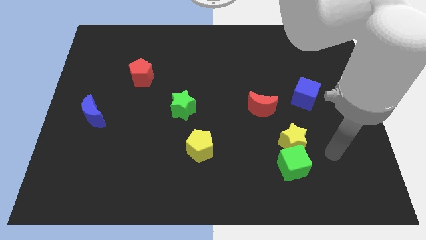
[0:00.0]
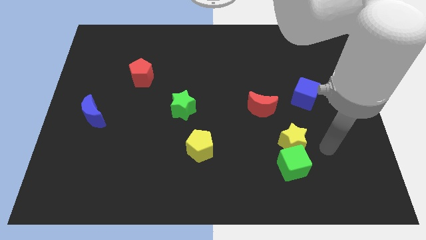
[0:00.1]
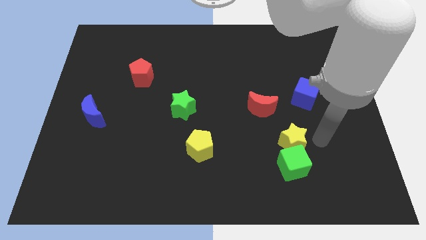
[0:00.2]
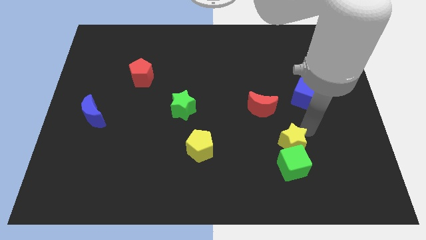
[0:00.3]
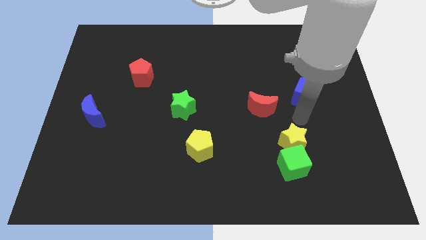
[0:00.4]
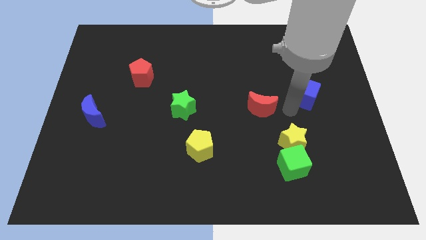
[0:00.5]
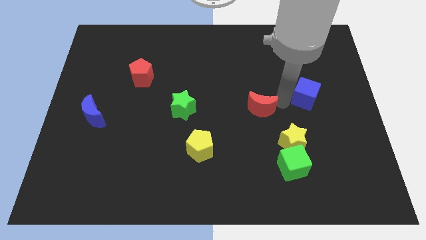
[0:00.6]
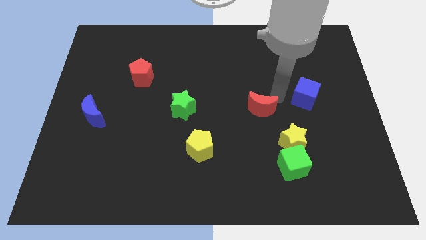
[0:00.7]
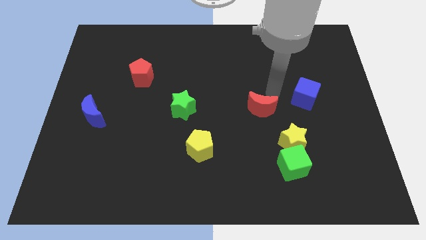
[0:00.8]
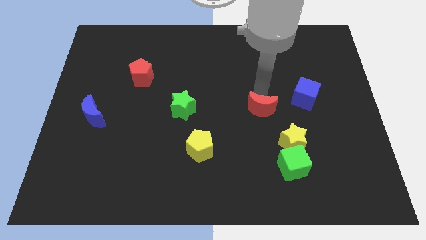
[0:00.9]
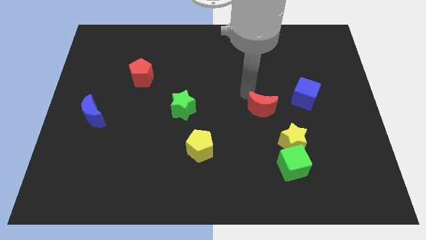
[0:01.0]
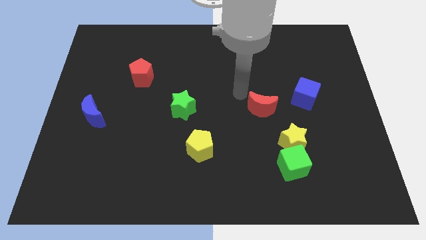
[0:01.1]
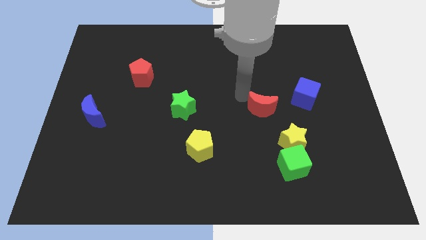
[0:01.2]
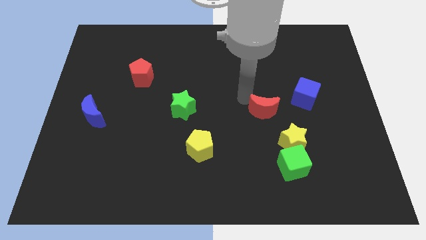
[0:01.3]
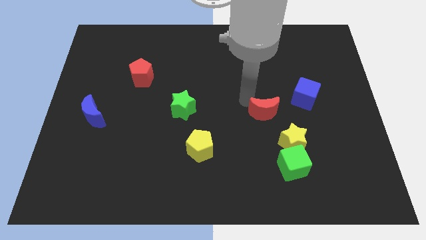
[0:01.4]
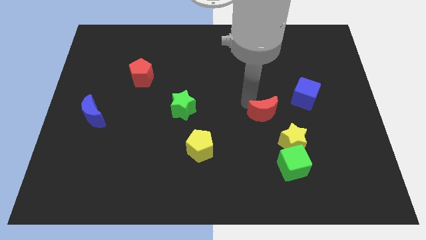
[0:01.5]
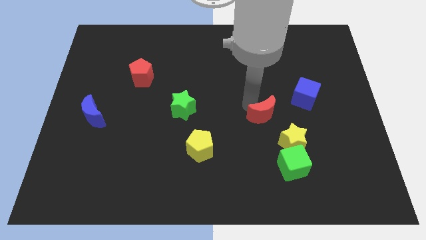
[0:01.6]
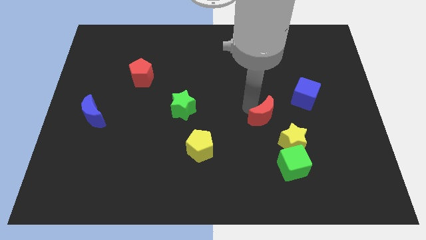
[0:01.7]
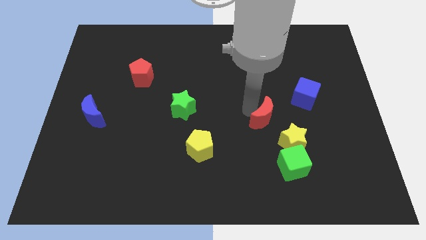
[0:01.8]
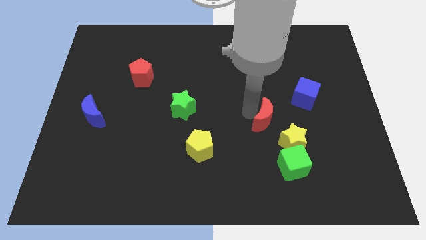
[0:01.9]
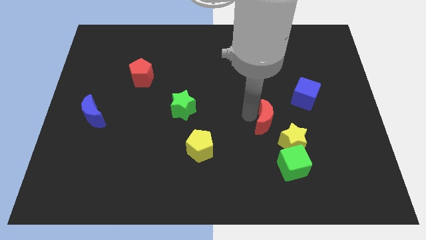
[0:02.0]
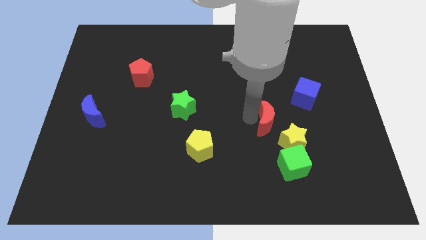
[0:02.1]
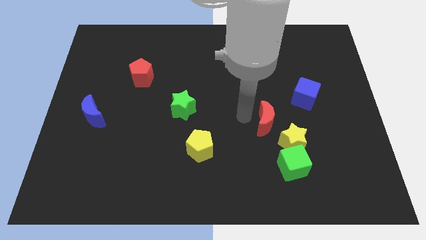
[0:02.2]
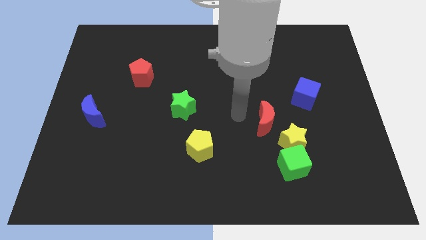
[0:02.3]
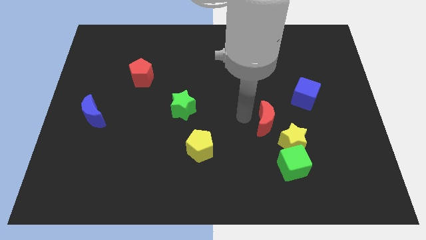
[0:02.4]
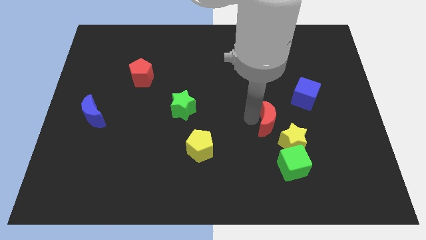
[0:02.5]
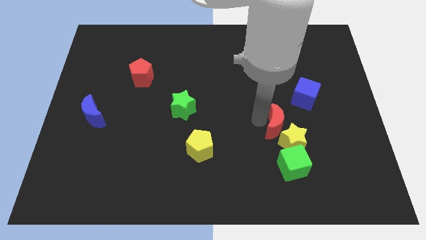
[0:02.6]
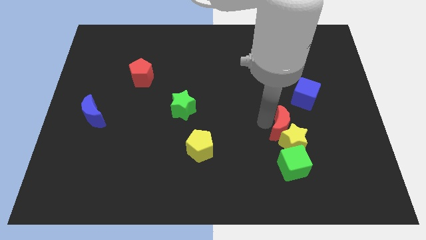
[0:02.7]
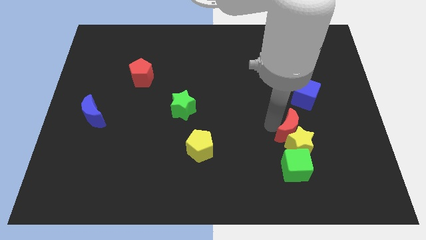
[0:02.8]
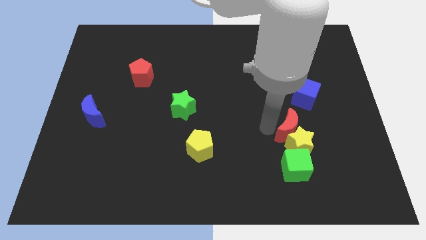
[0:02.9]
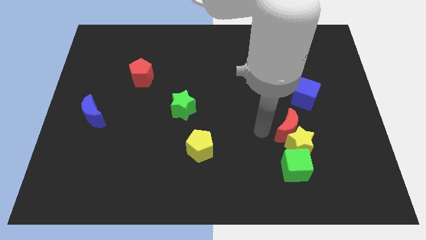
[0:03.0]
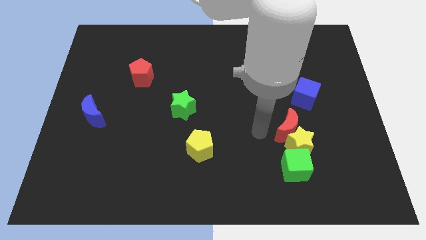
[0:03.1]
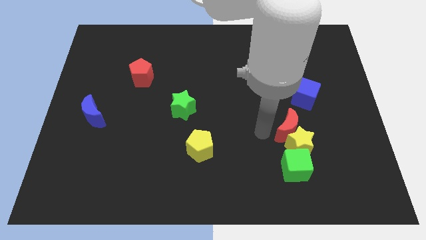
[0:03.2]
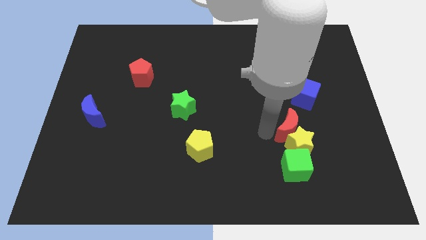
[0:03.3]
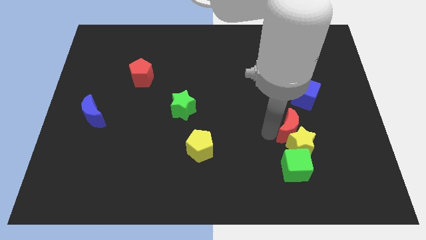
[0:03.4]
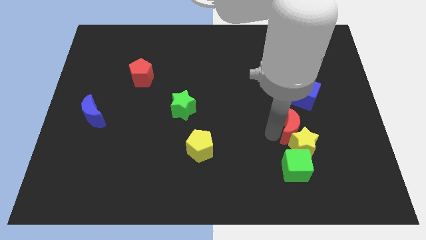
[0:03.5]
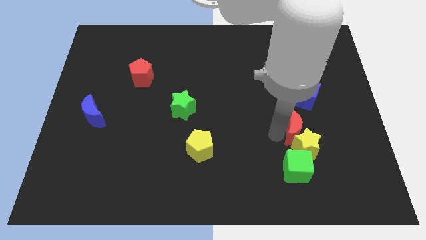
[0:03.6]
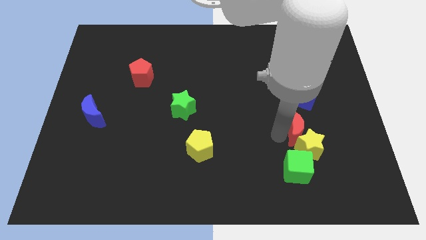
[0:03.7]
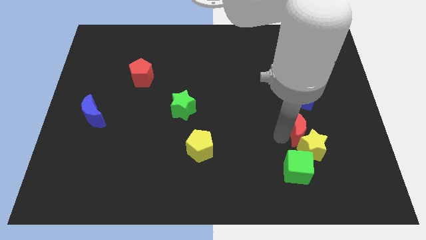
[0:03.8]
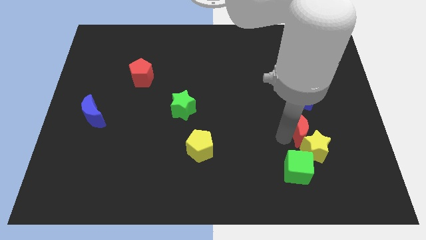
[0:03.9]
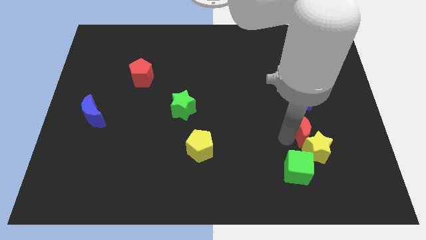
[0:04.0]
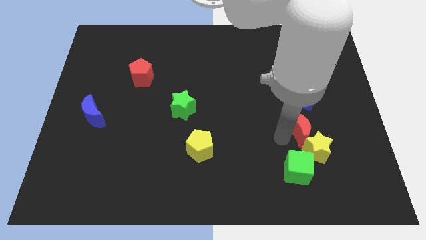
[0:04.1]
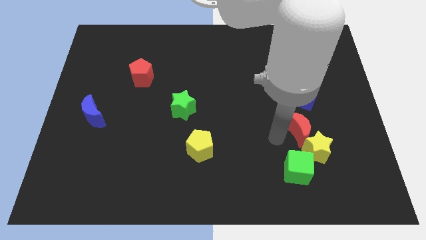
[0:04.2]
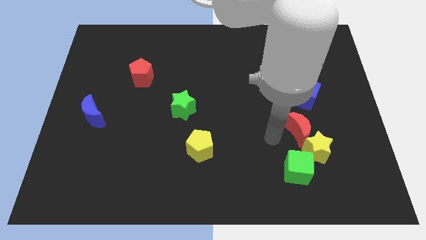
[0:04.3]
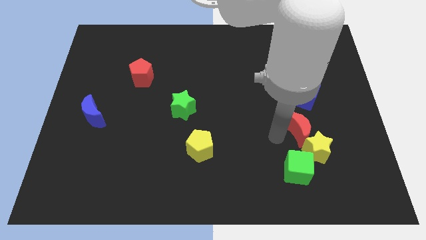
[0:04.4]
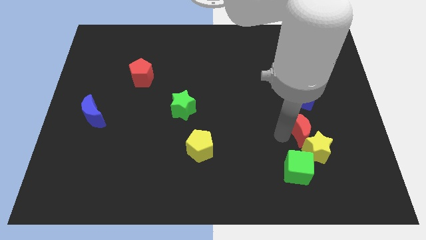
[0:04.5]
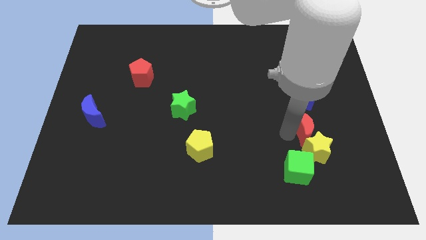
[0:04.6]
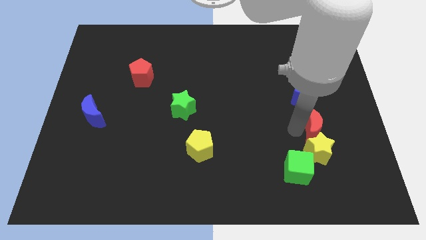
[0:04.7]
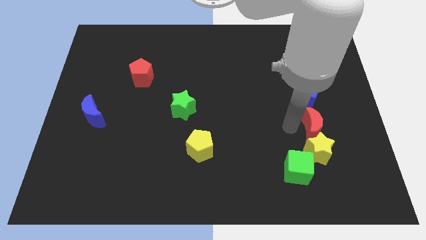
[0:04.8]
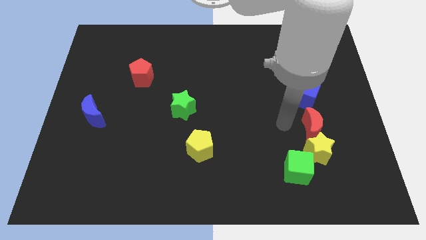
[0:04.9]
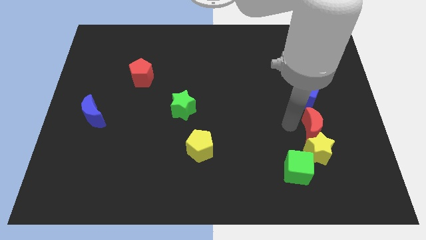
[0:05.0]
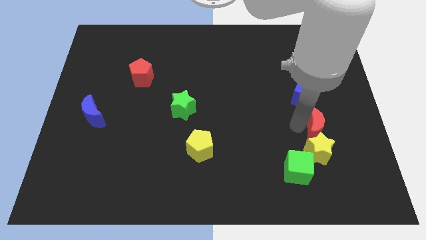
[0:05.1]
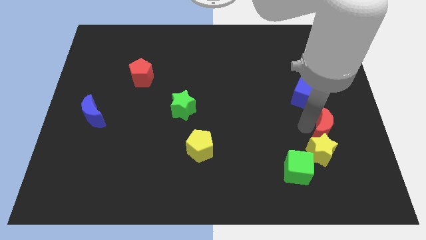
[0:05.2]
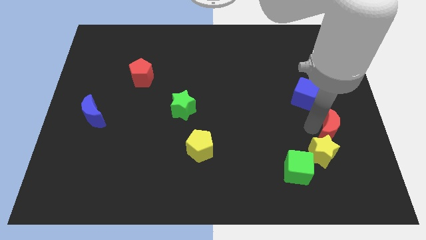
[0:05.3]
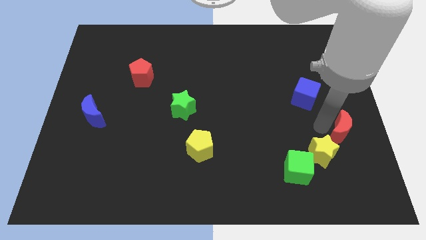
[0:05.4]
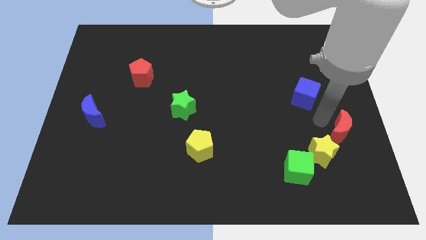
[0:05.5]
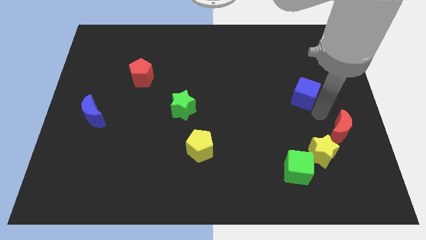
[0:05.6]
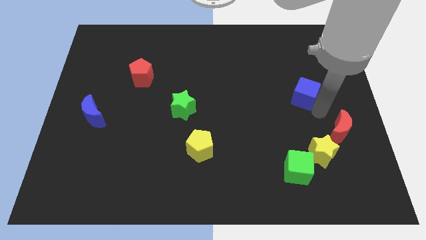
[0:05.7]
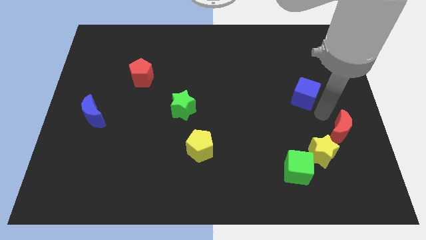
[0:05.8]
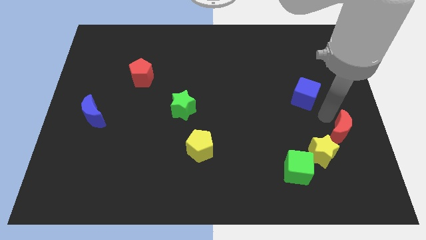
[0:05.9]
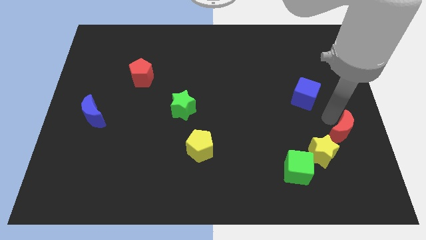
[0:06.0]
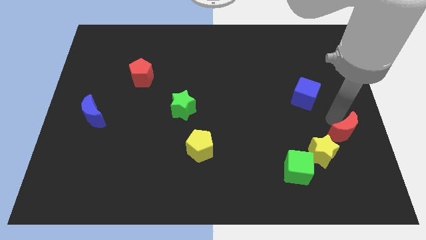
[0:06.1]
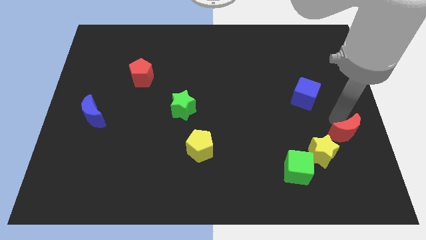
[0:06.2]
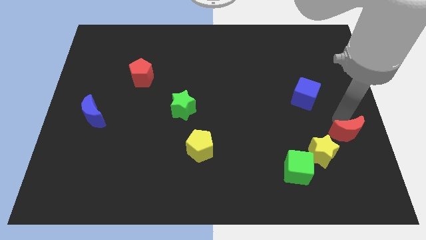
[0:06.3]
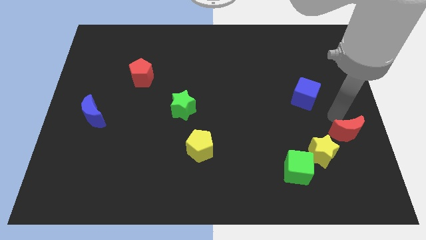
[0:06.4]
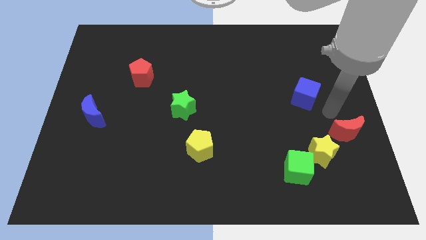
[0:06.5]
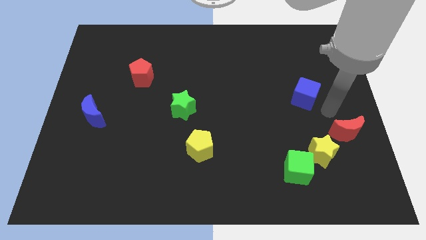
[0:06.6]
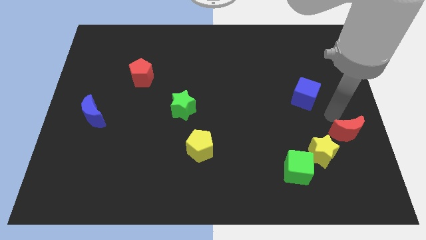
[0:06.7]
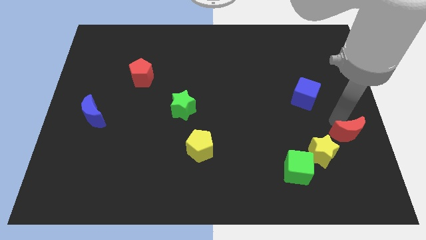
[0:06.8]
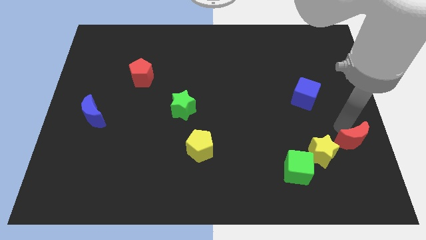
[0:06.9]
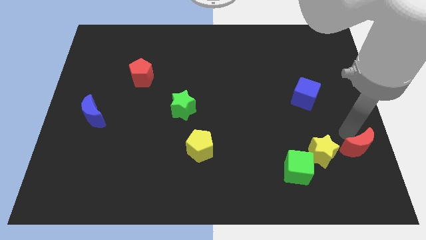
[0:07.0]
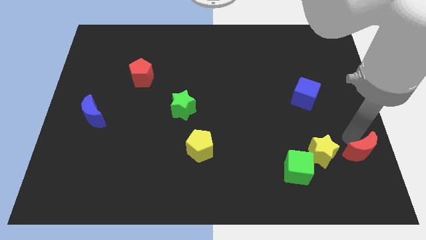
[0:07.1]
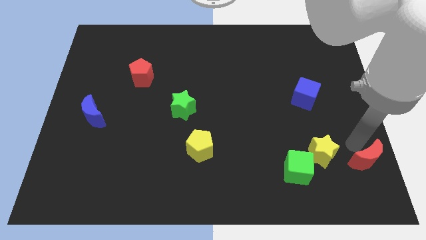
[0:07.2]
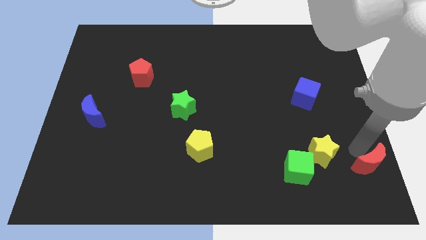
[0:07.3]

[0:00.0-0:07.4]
put the red moon to the bottom right corner
